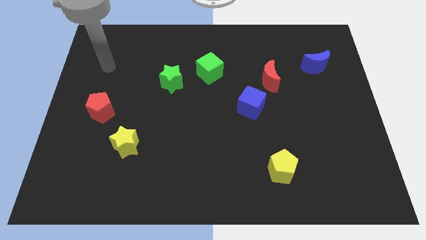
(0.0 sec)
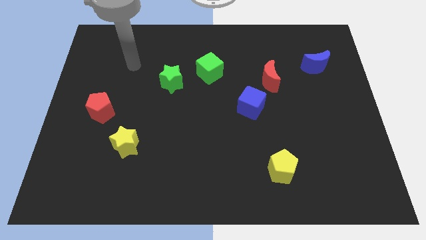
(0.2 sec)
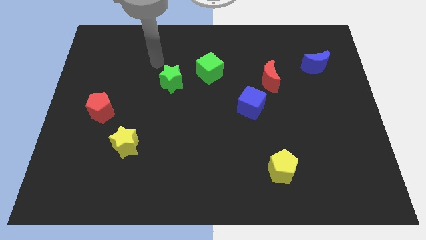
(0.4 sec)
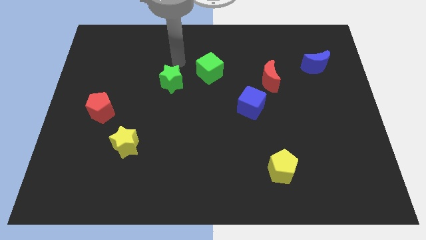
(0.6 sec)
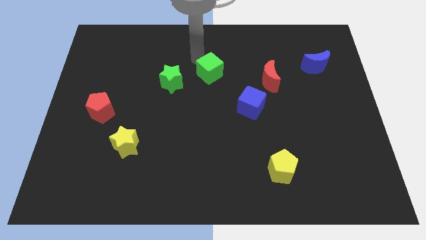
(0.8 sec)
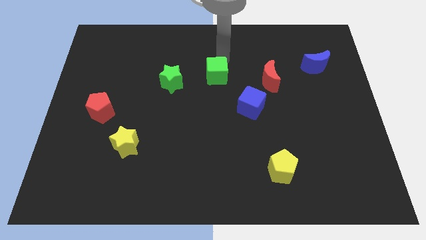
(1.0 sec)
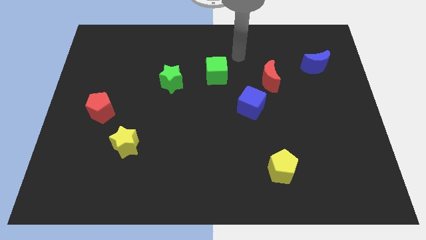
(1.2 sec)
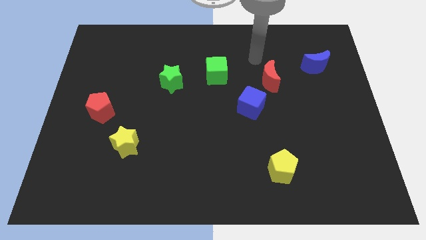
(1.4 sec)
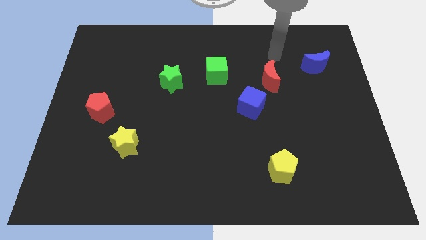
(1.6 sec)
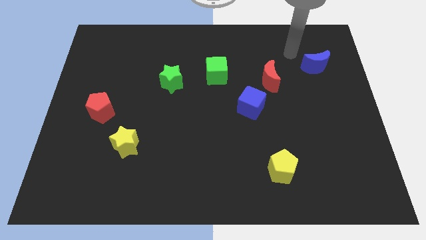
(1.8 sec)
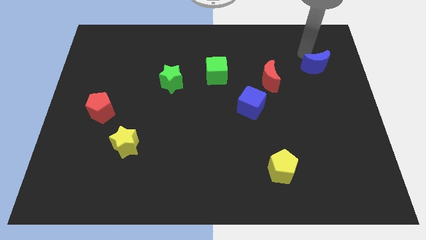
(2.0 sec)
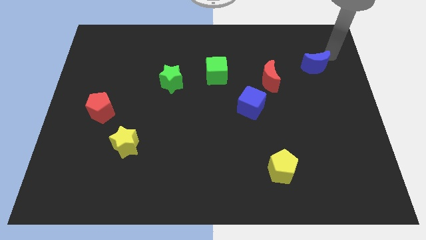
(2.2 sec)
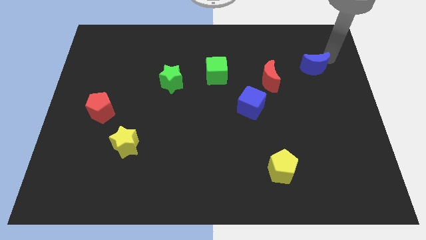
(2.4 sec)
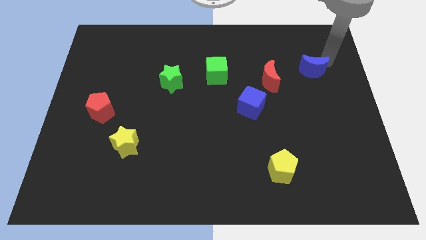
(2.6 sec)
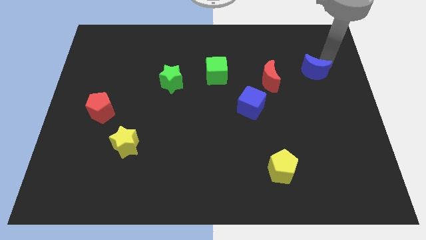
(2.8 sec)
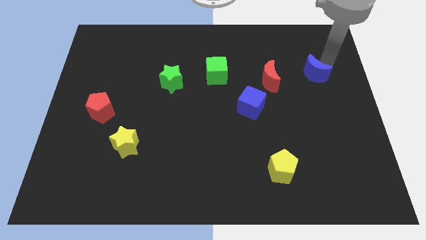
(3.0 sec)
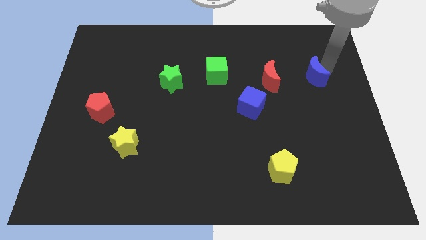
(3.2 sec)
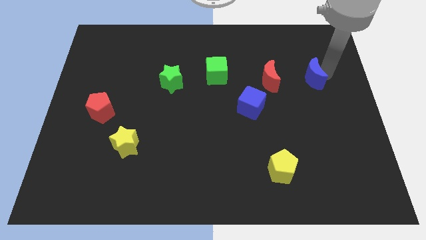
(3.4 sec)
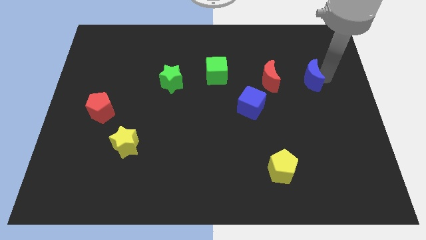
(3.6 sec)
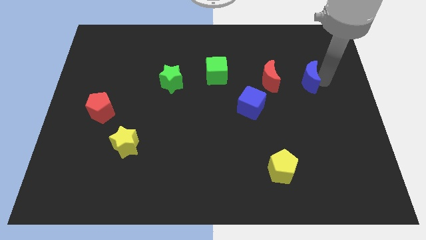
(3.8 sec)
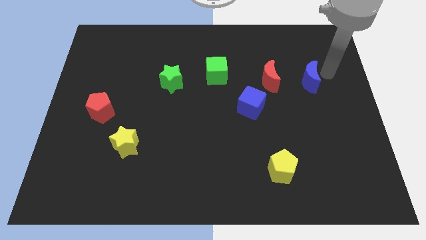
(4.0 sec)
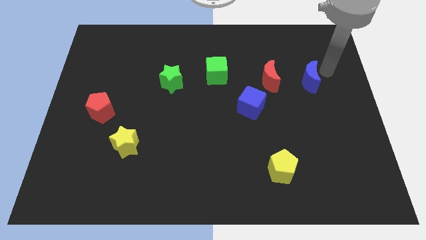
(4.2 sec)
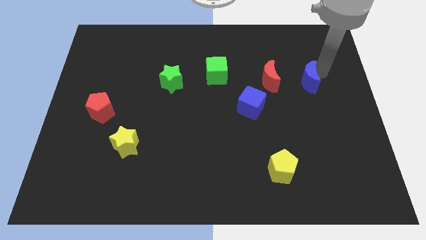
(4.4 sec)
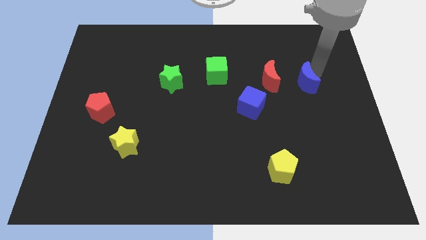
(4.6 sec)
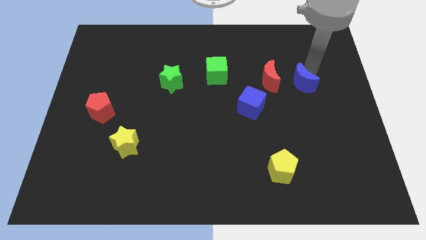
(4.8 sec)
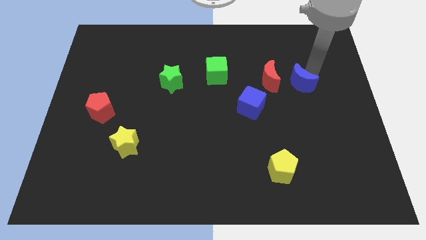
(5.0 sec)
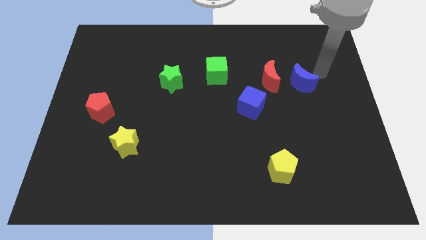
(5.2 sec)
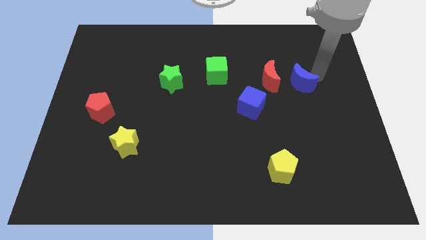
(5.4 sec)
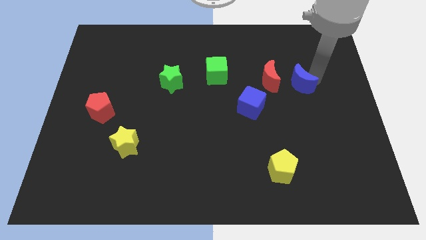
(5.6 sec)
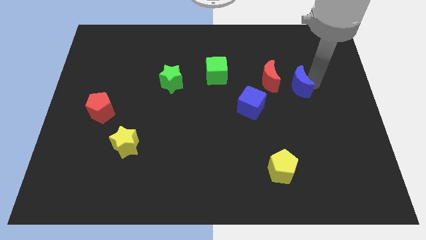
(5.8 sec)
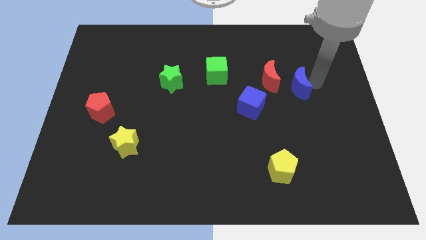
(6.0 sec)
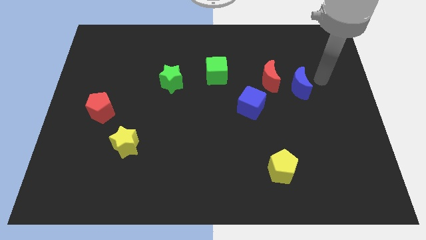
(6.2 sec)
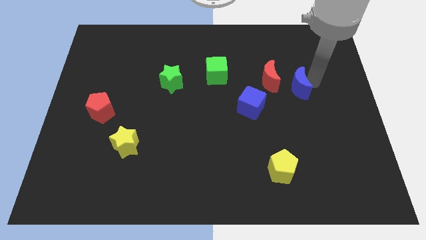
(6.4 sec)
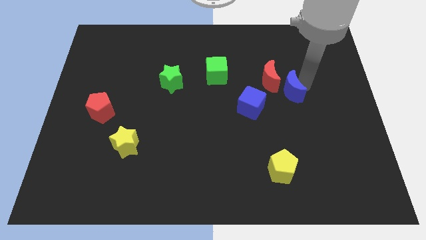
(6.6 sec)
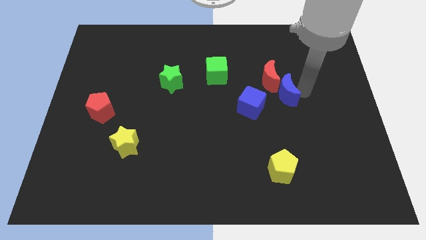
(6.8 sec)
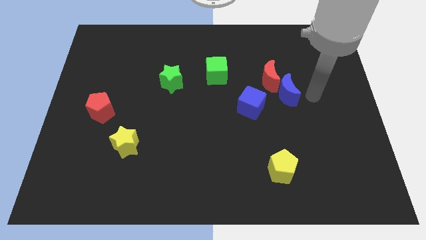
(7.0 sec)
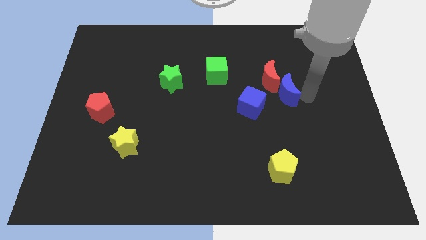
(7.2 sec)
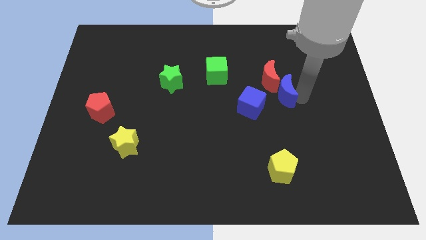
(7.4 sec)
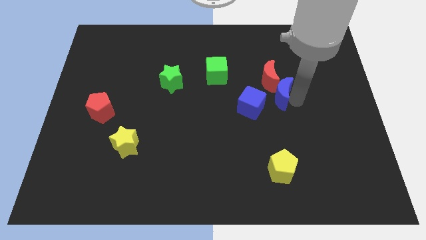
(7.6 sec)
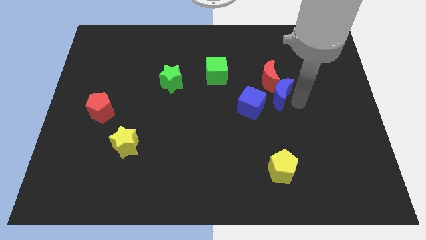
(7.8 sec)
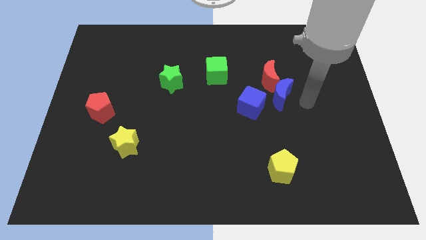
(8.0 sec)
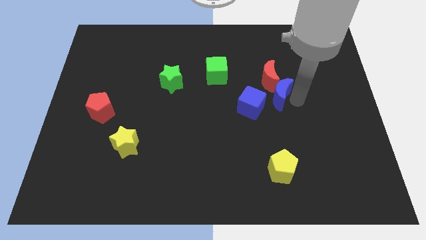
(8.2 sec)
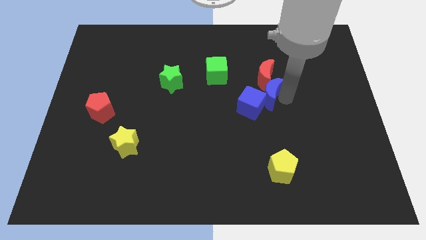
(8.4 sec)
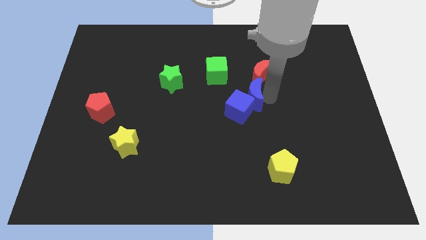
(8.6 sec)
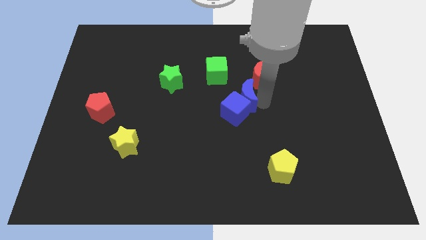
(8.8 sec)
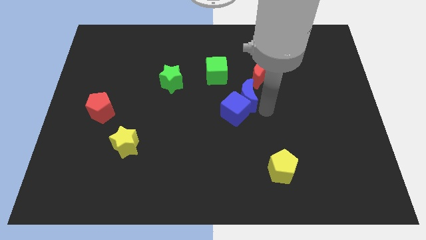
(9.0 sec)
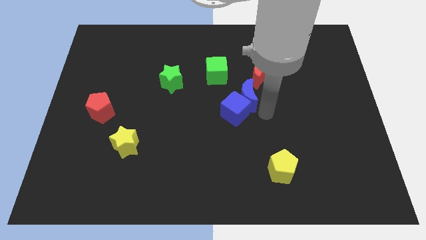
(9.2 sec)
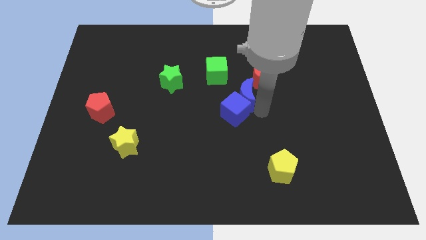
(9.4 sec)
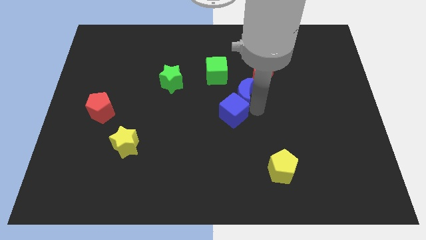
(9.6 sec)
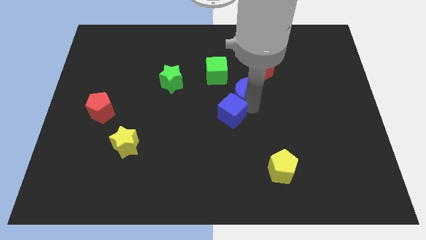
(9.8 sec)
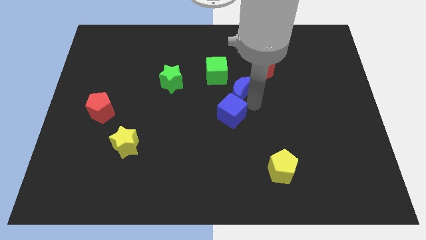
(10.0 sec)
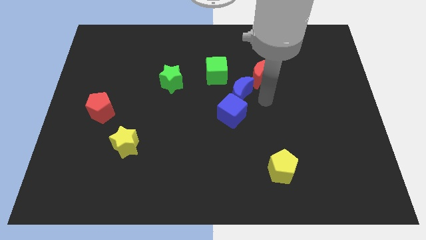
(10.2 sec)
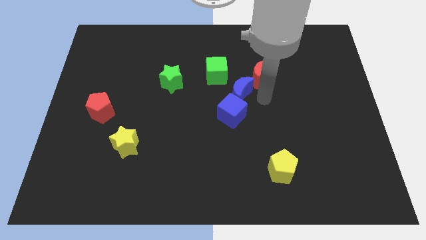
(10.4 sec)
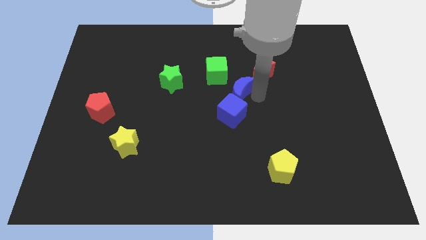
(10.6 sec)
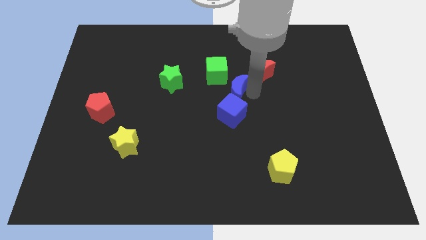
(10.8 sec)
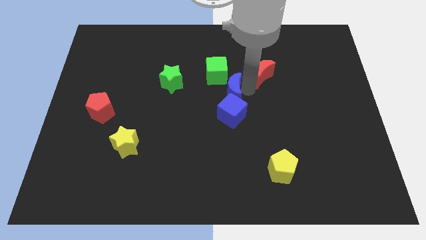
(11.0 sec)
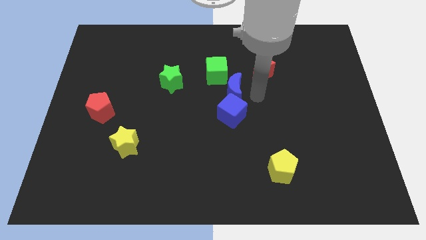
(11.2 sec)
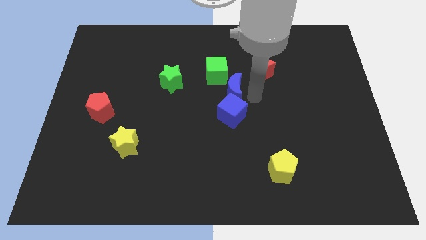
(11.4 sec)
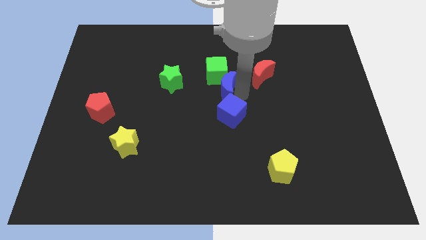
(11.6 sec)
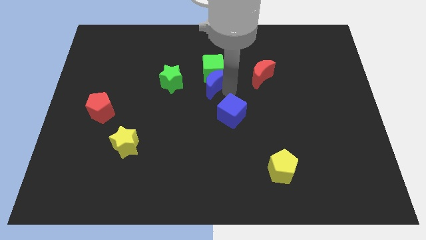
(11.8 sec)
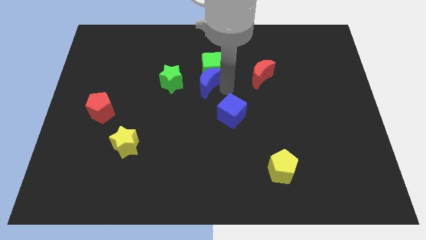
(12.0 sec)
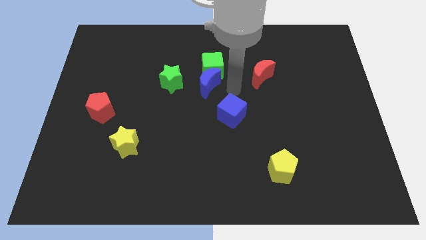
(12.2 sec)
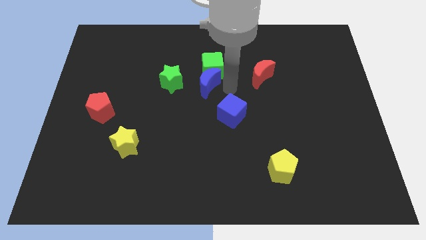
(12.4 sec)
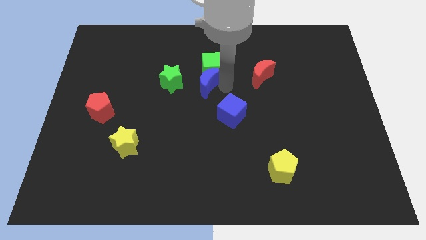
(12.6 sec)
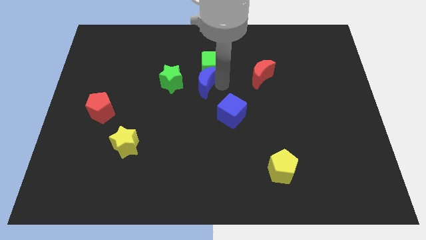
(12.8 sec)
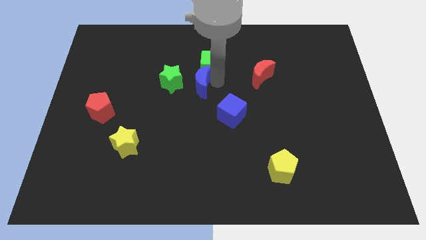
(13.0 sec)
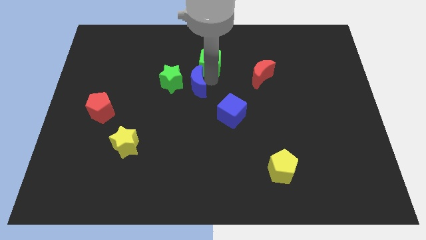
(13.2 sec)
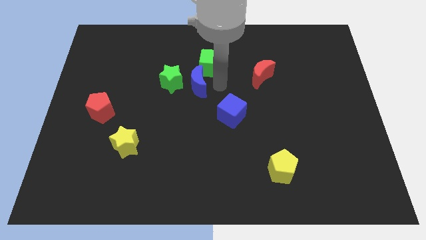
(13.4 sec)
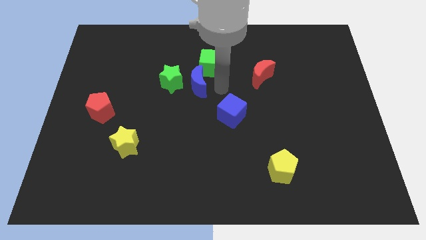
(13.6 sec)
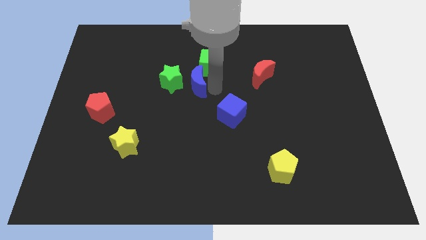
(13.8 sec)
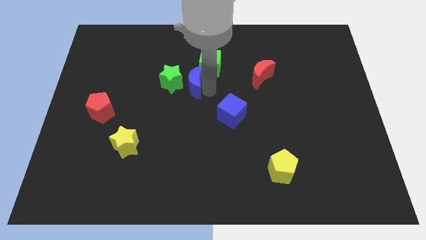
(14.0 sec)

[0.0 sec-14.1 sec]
push the blue moon to the green star

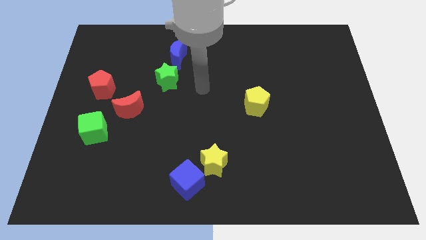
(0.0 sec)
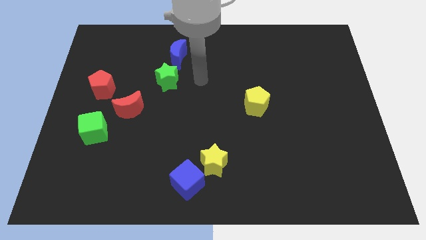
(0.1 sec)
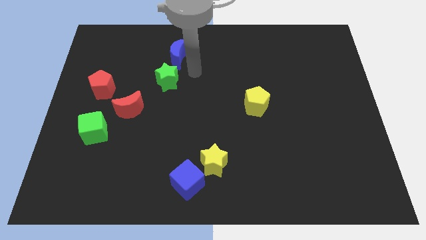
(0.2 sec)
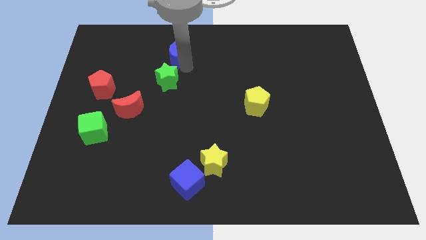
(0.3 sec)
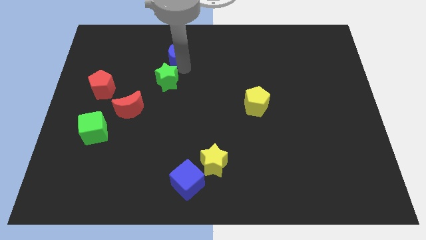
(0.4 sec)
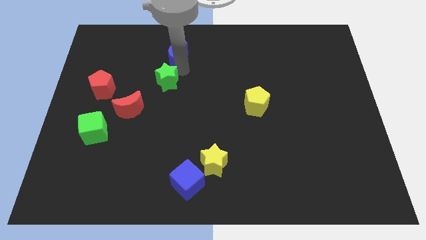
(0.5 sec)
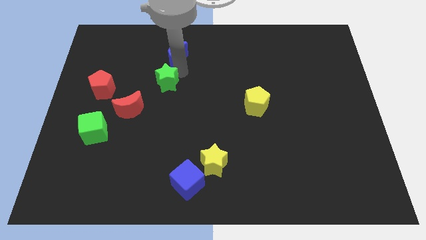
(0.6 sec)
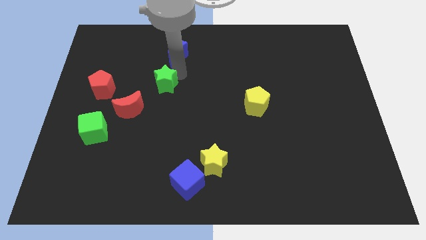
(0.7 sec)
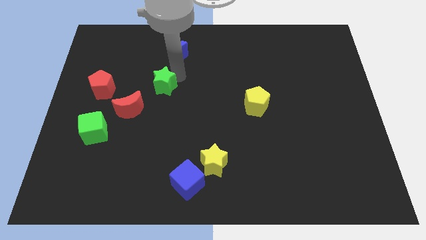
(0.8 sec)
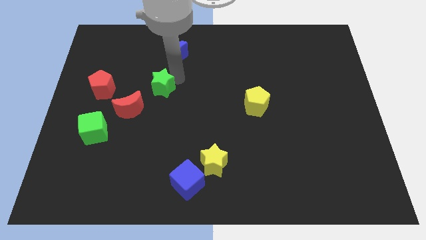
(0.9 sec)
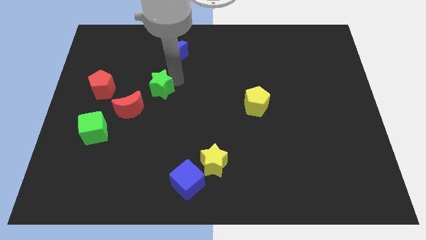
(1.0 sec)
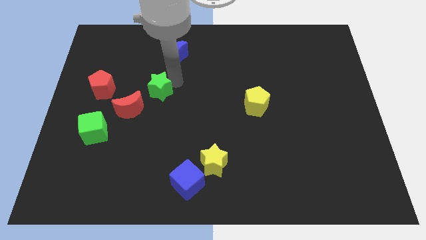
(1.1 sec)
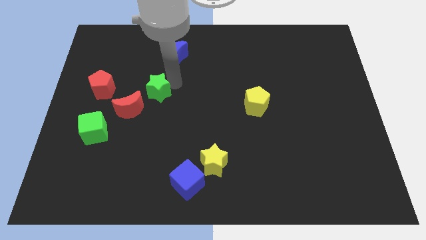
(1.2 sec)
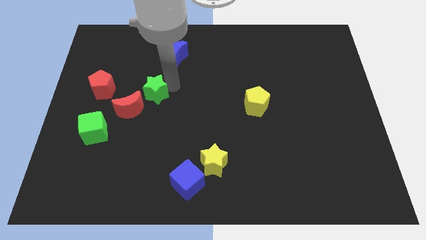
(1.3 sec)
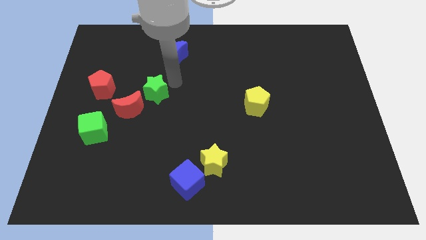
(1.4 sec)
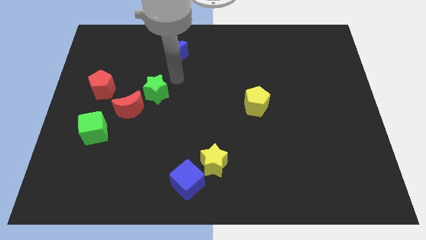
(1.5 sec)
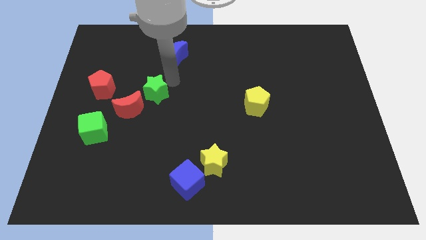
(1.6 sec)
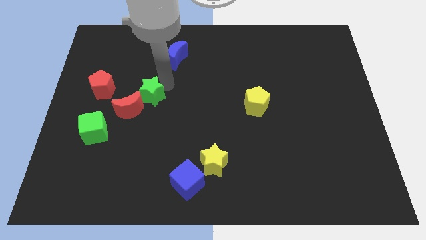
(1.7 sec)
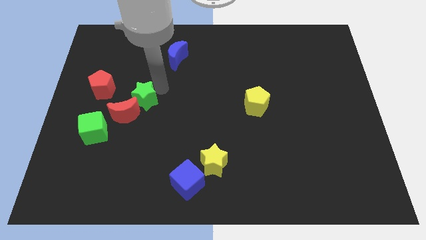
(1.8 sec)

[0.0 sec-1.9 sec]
slide the green star next to the red moon
